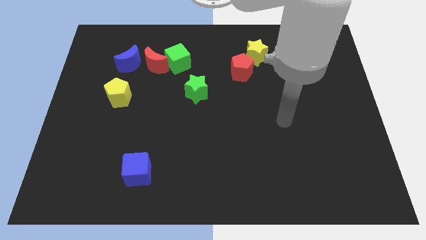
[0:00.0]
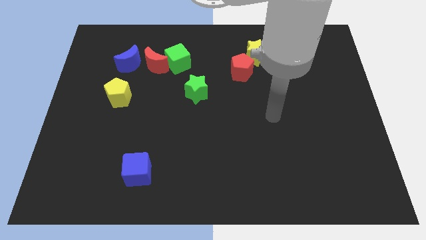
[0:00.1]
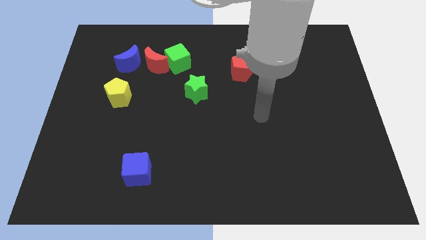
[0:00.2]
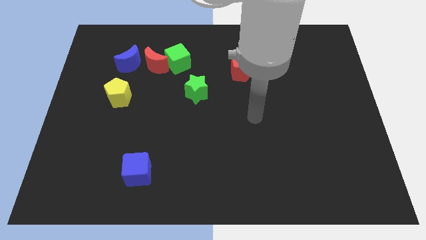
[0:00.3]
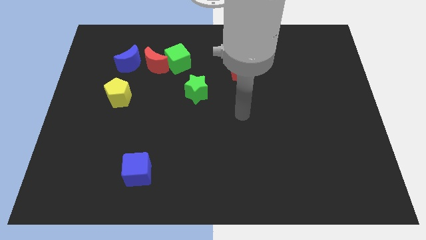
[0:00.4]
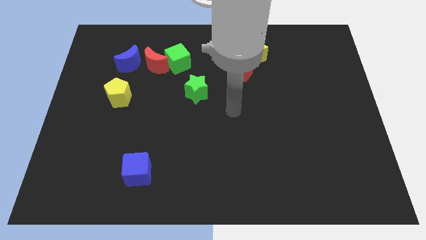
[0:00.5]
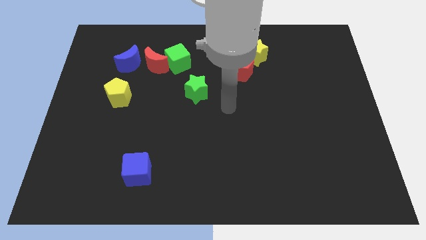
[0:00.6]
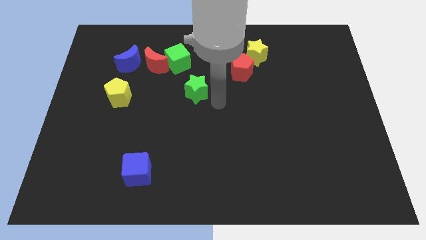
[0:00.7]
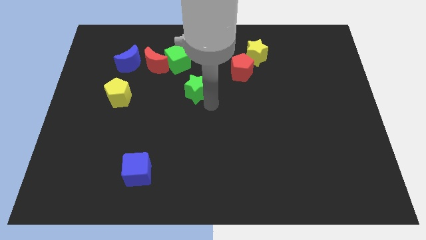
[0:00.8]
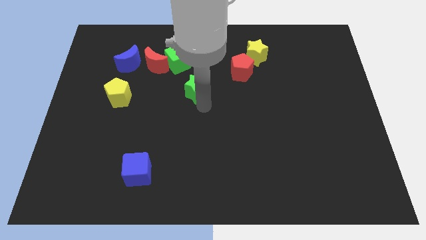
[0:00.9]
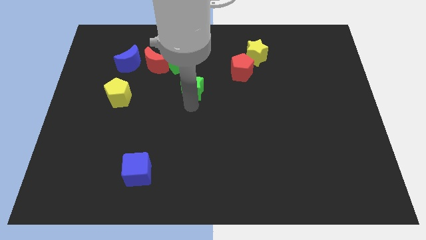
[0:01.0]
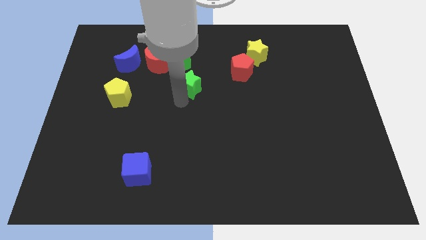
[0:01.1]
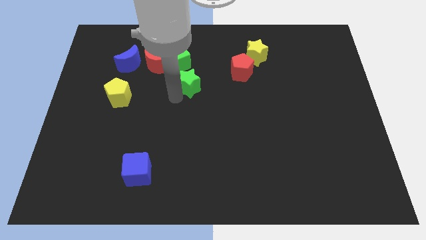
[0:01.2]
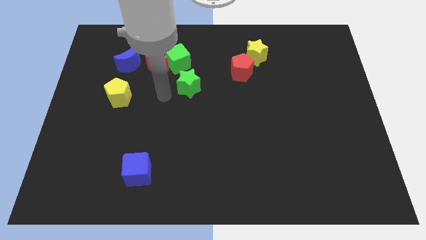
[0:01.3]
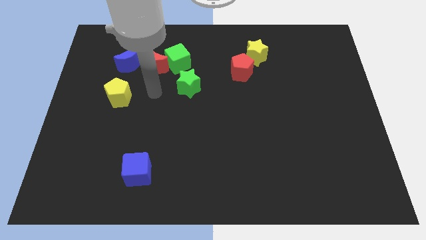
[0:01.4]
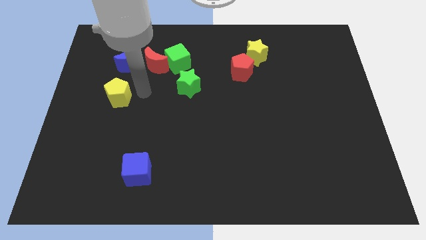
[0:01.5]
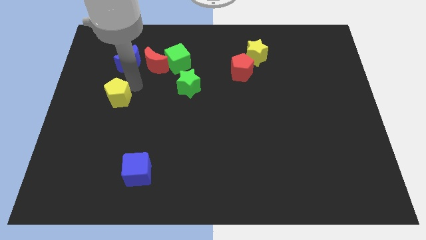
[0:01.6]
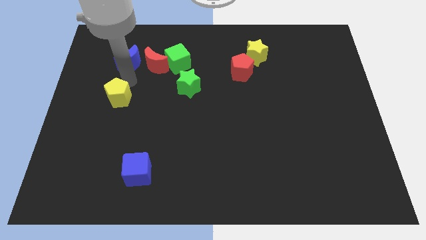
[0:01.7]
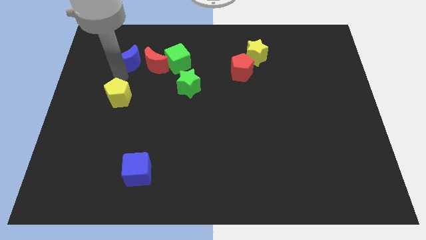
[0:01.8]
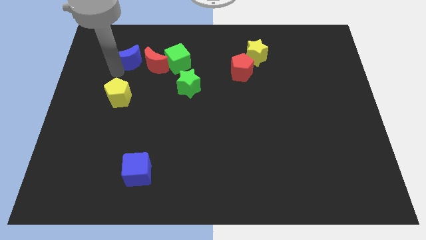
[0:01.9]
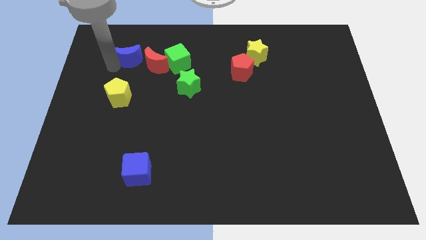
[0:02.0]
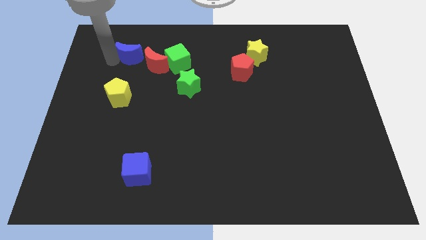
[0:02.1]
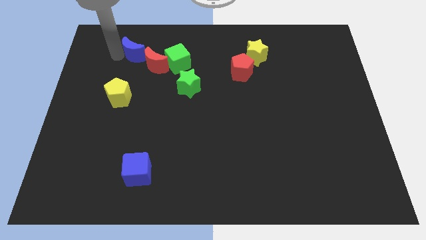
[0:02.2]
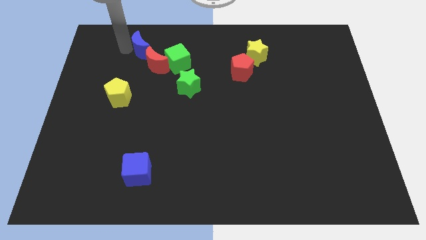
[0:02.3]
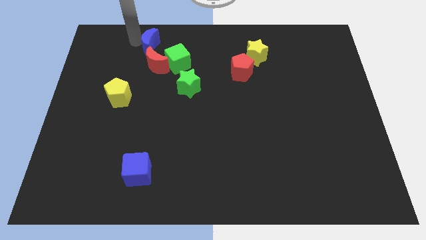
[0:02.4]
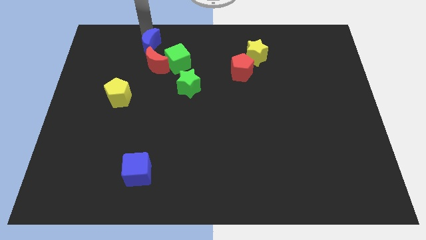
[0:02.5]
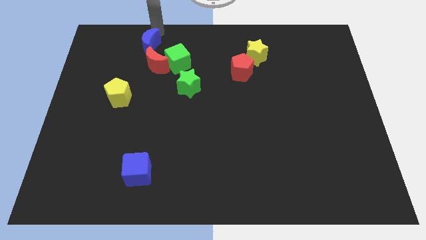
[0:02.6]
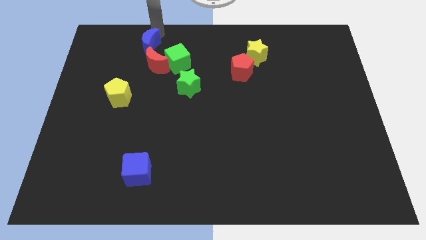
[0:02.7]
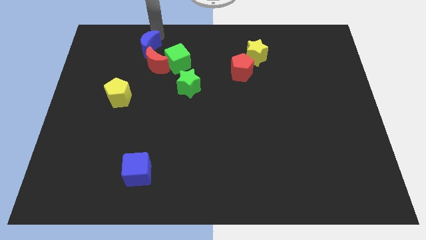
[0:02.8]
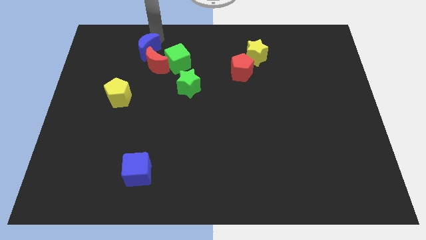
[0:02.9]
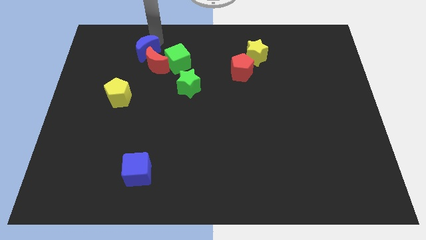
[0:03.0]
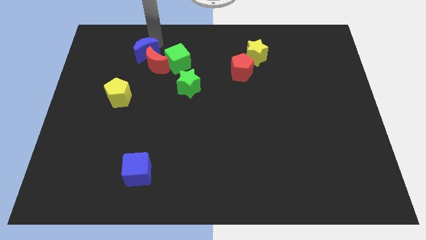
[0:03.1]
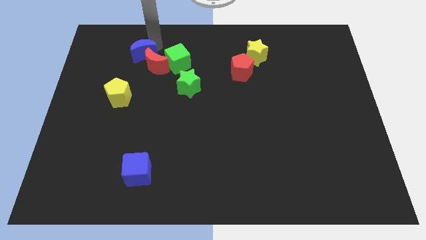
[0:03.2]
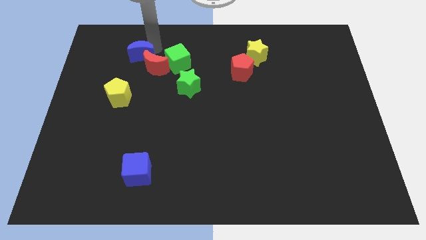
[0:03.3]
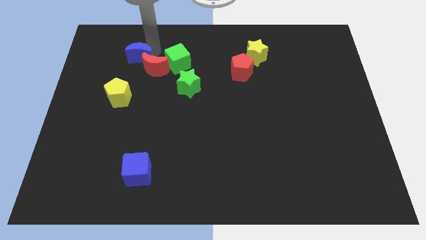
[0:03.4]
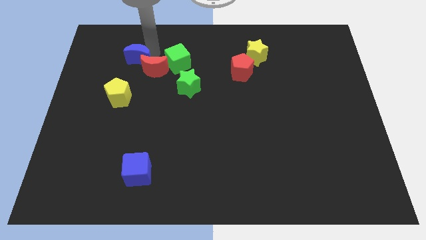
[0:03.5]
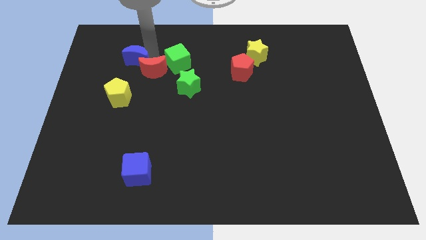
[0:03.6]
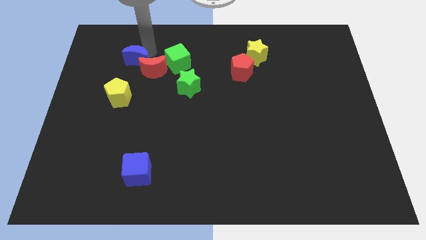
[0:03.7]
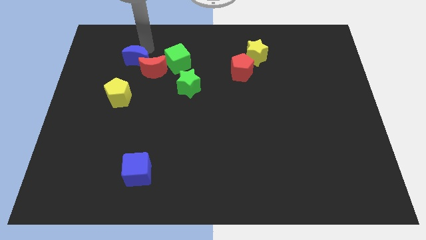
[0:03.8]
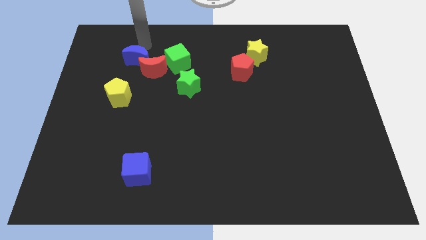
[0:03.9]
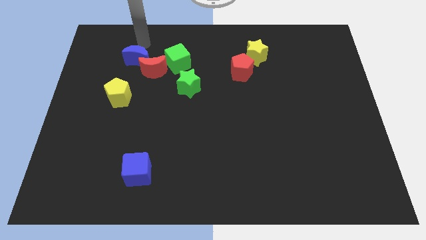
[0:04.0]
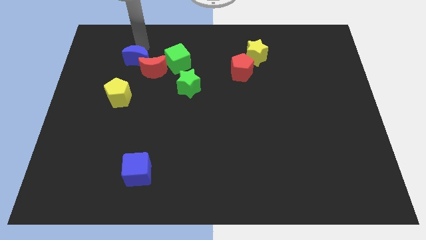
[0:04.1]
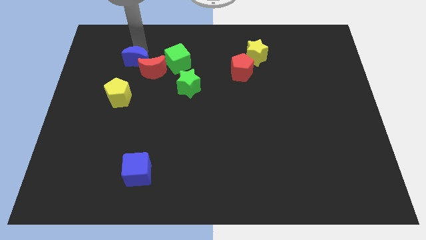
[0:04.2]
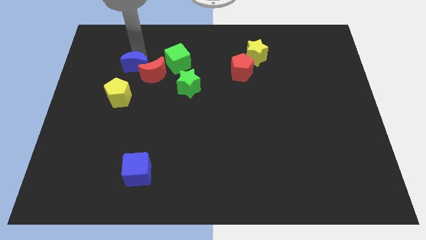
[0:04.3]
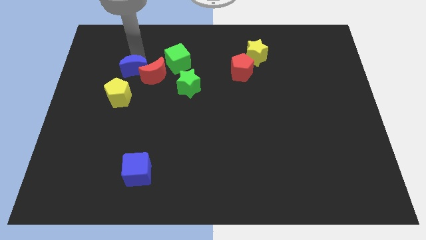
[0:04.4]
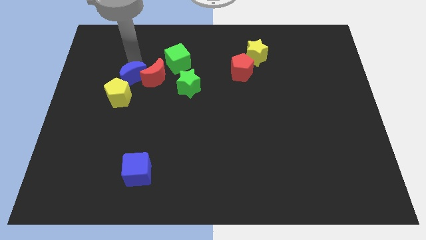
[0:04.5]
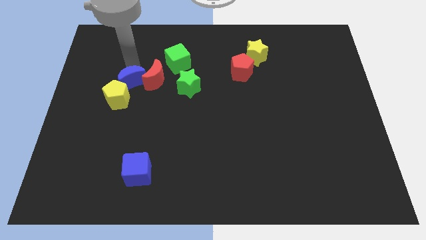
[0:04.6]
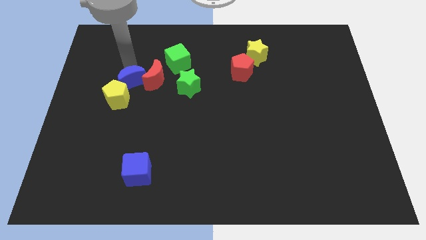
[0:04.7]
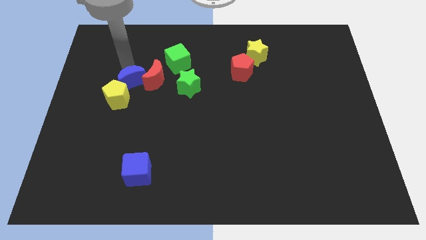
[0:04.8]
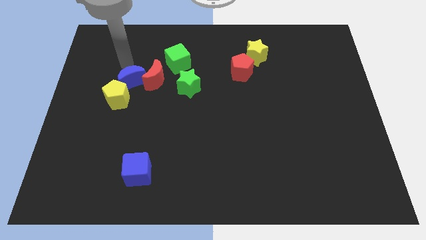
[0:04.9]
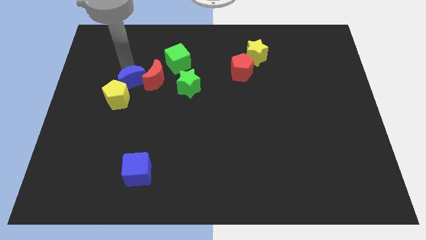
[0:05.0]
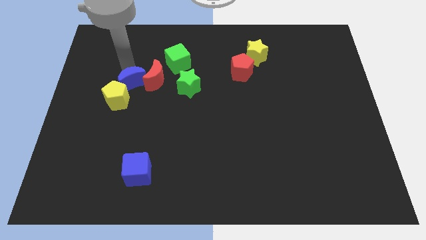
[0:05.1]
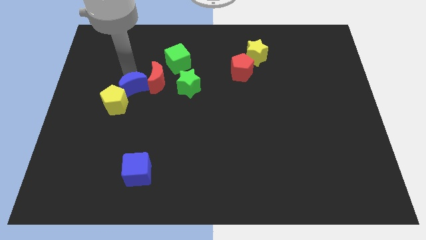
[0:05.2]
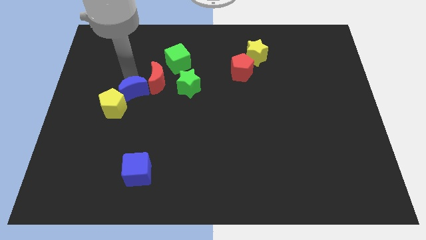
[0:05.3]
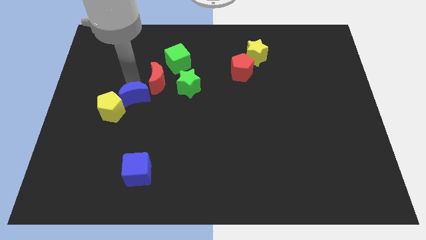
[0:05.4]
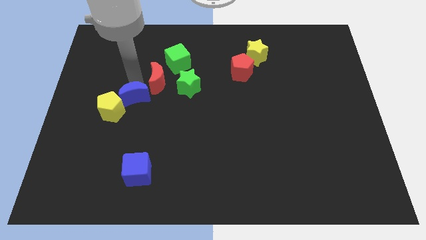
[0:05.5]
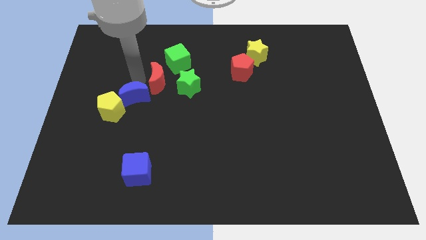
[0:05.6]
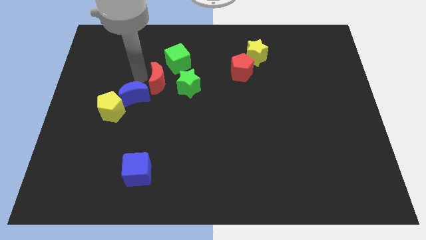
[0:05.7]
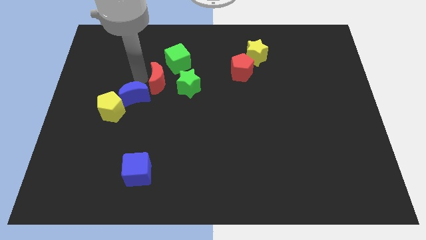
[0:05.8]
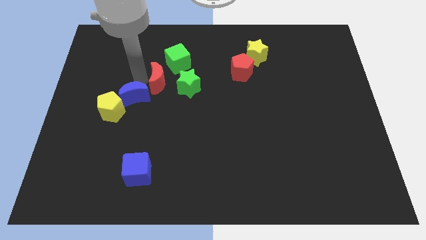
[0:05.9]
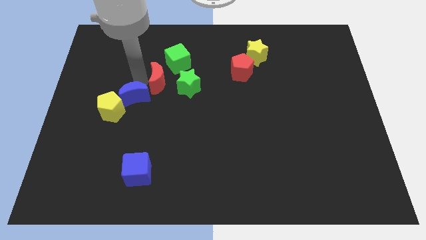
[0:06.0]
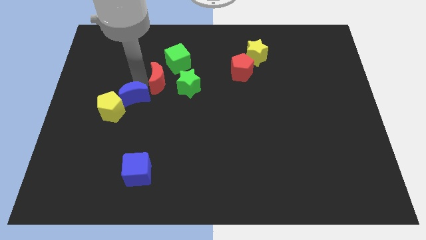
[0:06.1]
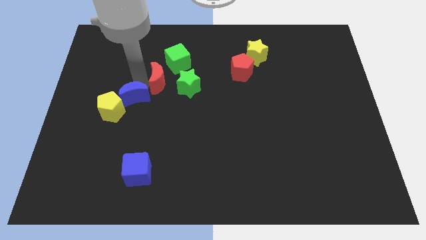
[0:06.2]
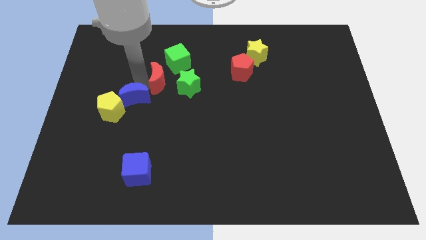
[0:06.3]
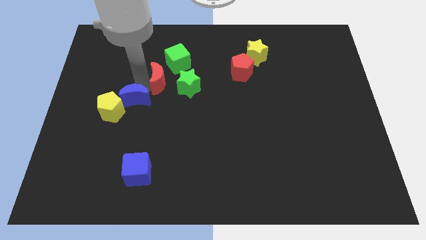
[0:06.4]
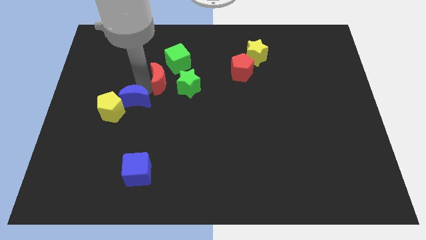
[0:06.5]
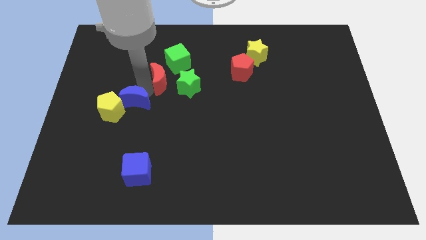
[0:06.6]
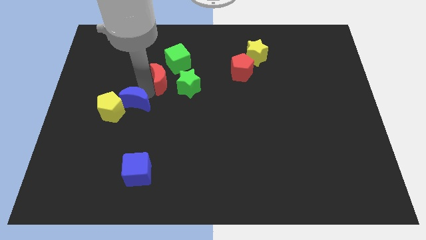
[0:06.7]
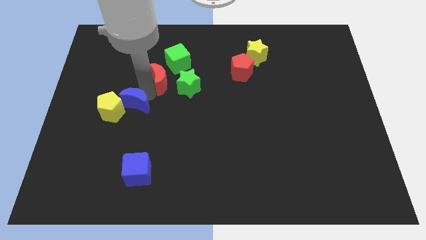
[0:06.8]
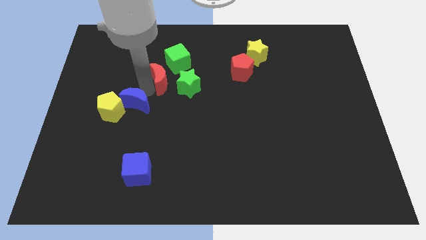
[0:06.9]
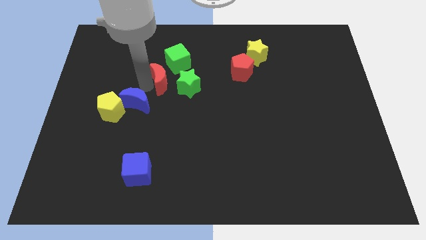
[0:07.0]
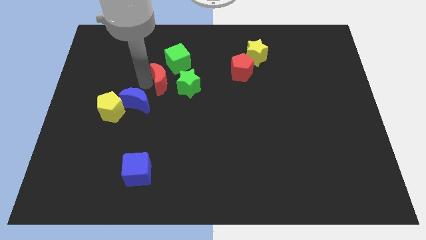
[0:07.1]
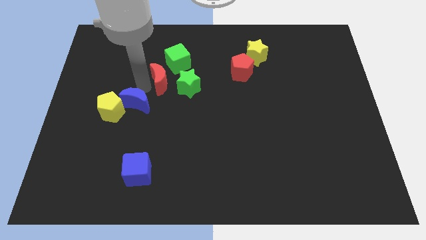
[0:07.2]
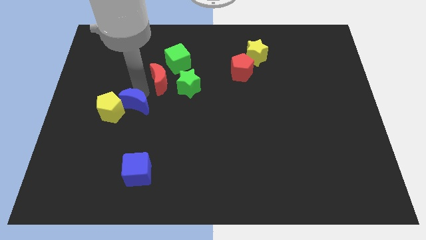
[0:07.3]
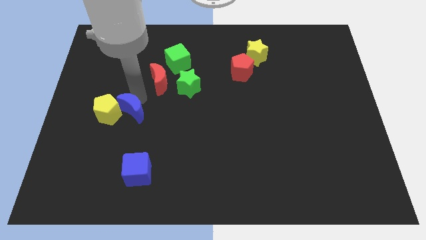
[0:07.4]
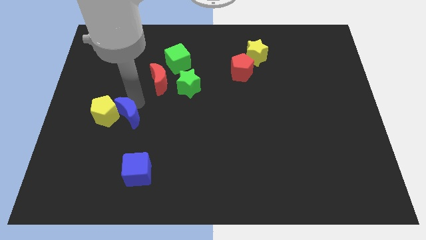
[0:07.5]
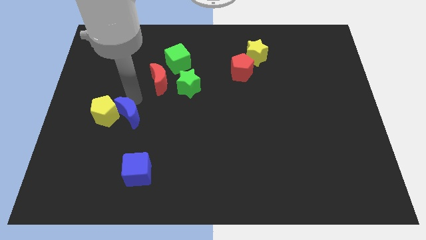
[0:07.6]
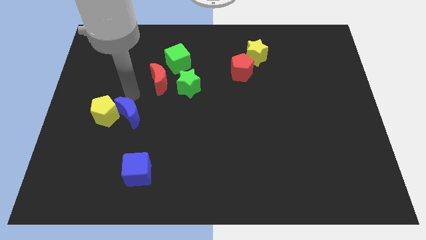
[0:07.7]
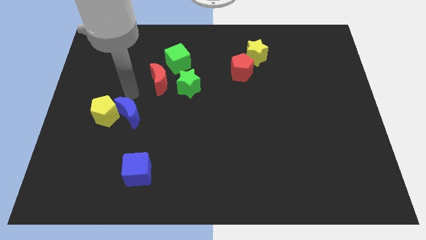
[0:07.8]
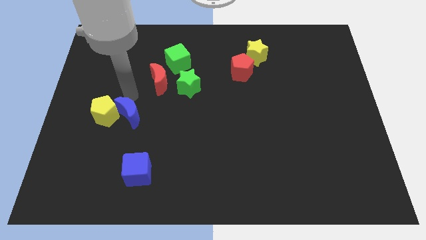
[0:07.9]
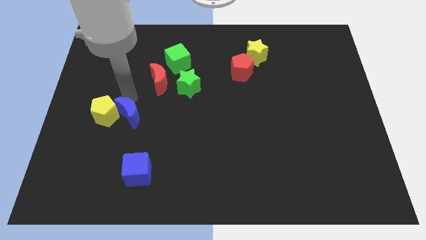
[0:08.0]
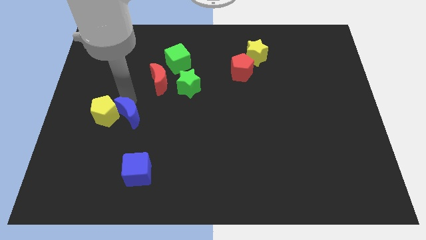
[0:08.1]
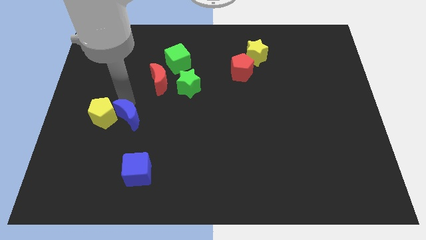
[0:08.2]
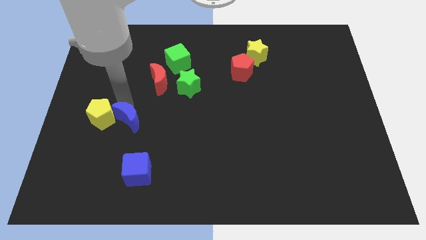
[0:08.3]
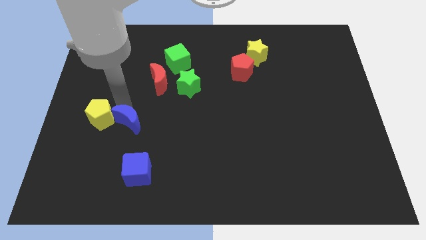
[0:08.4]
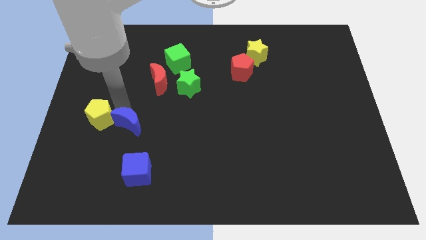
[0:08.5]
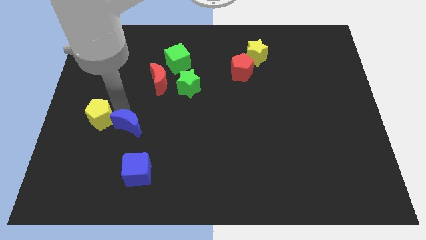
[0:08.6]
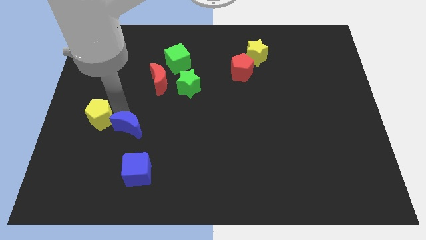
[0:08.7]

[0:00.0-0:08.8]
push the blue moon down
